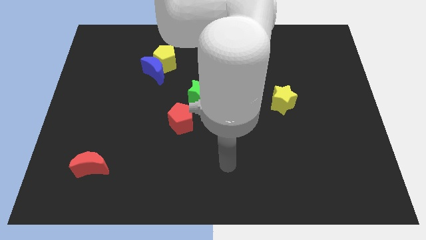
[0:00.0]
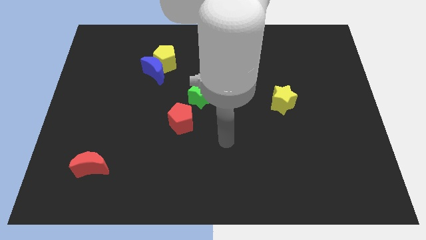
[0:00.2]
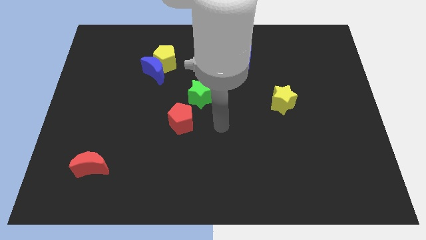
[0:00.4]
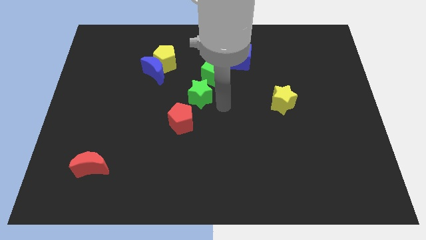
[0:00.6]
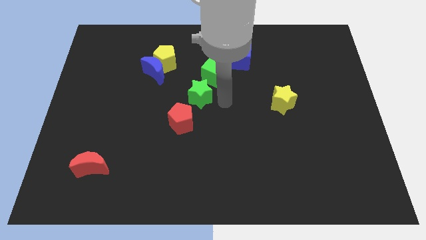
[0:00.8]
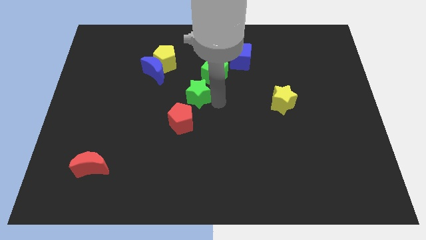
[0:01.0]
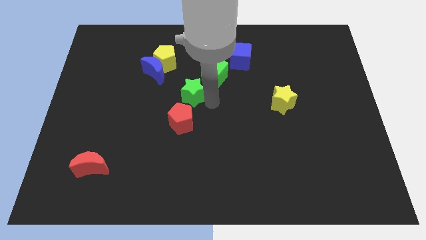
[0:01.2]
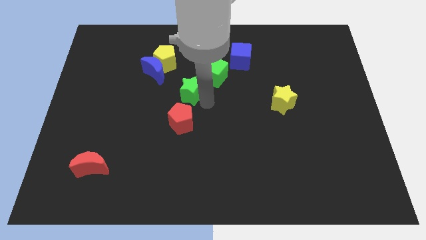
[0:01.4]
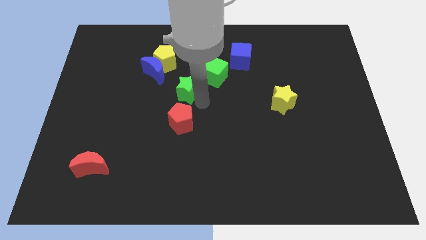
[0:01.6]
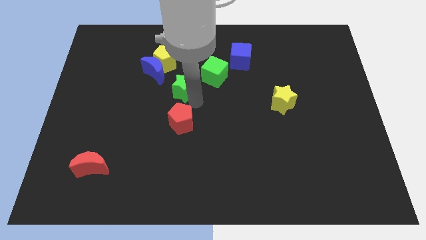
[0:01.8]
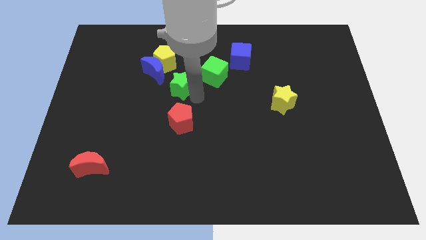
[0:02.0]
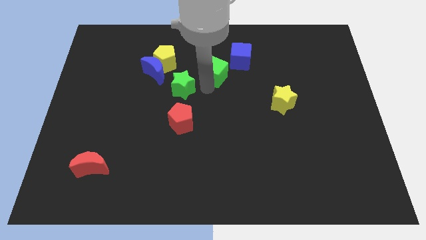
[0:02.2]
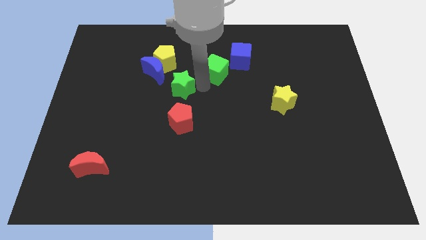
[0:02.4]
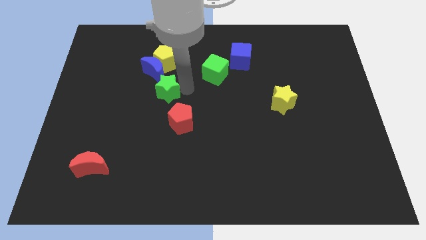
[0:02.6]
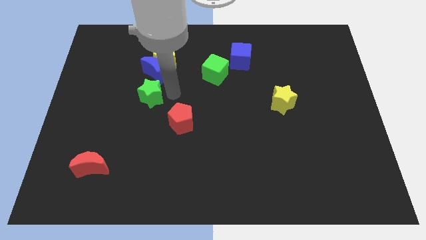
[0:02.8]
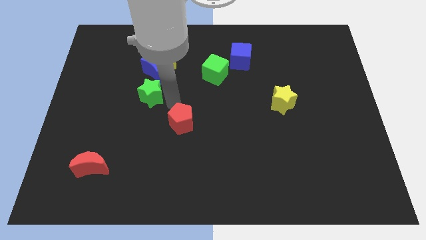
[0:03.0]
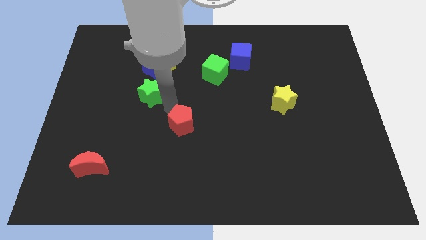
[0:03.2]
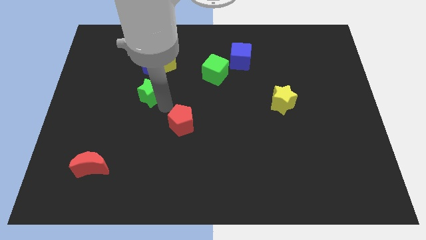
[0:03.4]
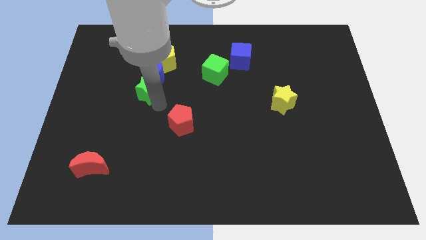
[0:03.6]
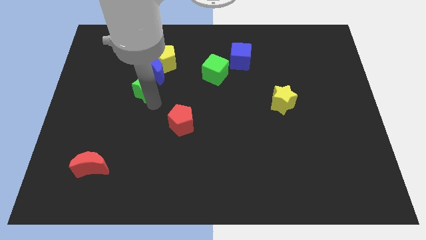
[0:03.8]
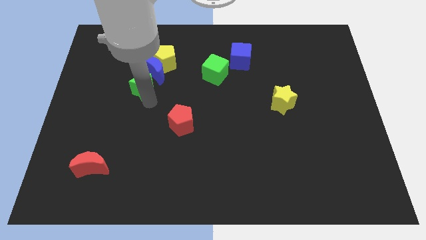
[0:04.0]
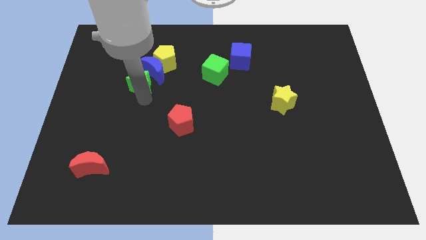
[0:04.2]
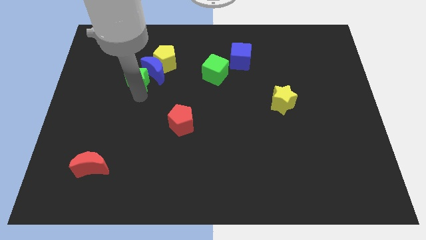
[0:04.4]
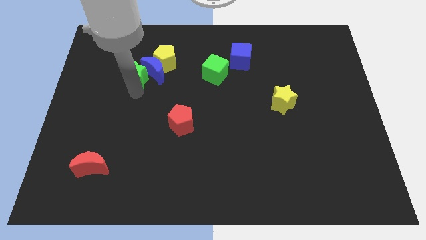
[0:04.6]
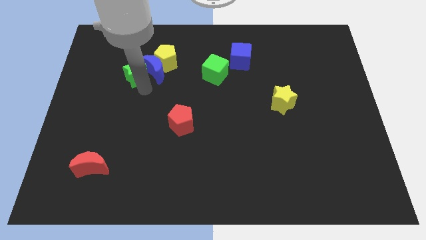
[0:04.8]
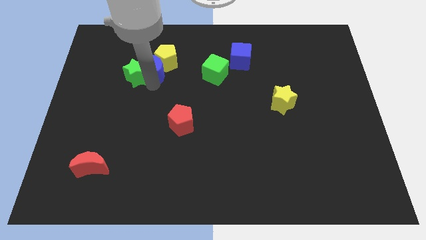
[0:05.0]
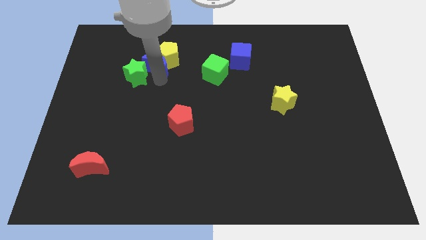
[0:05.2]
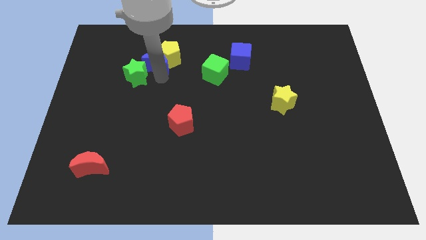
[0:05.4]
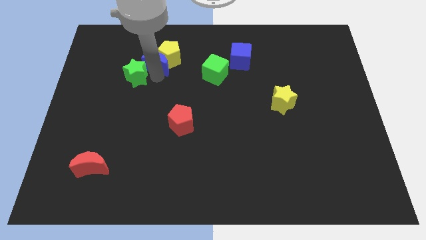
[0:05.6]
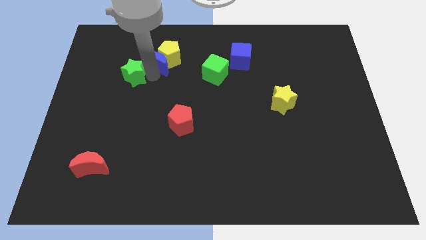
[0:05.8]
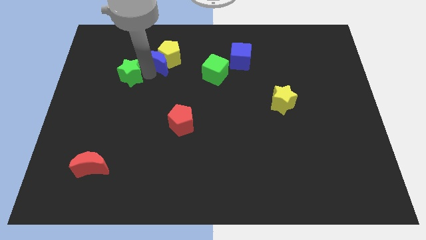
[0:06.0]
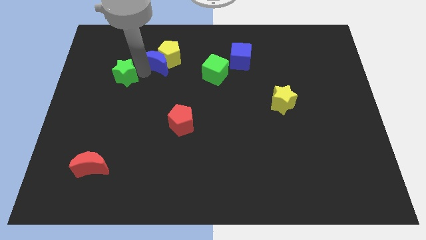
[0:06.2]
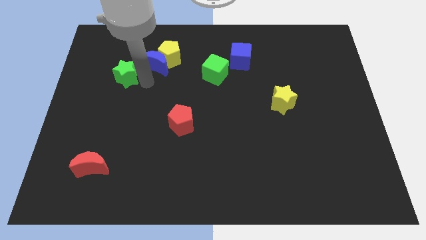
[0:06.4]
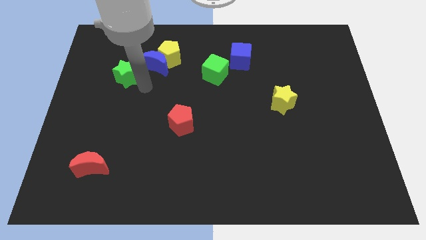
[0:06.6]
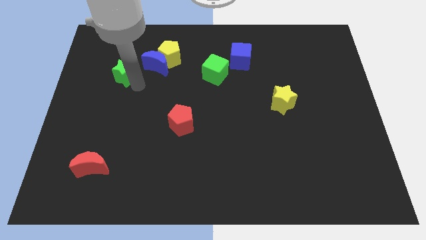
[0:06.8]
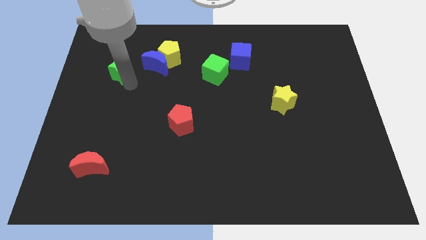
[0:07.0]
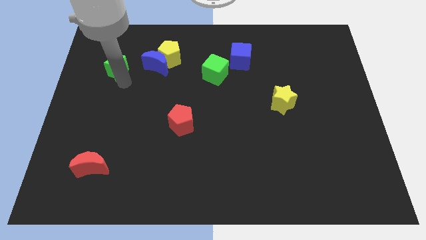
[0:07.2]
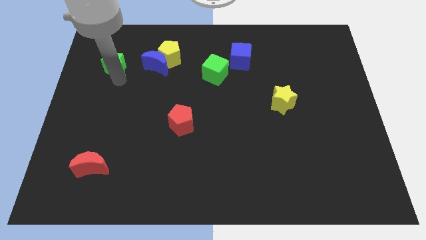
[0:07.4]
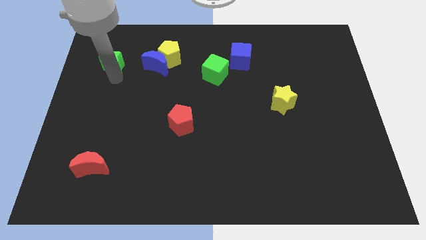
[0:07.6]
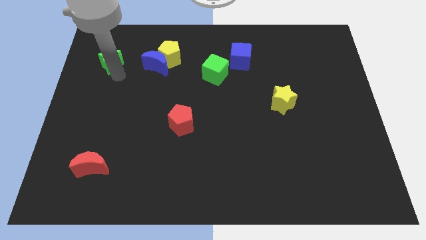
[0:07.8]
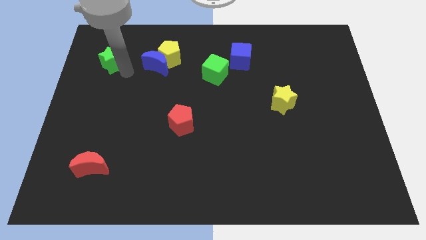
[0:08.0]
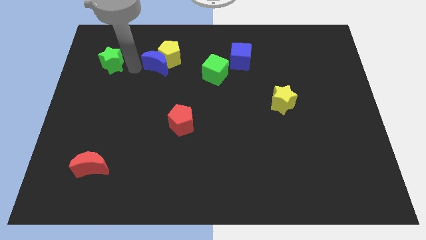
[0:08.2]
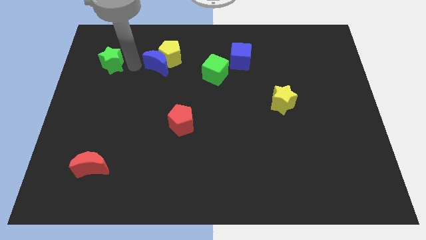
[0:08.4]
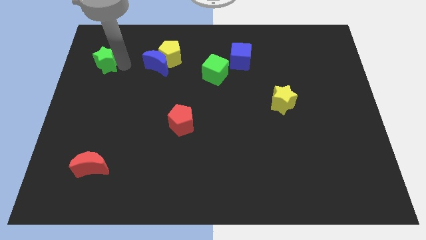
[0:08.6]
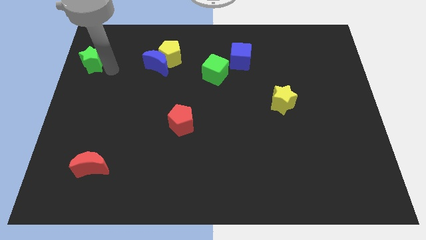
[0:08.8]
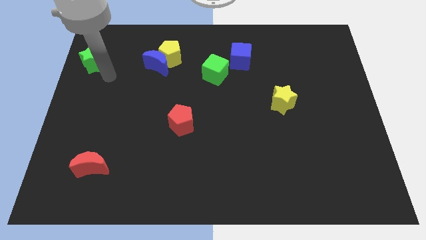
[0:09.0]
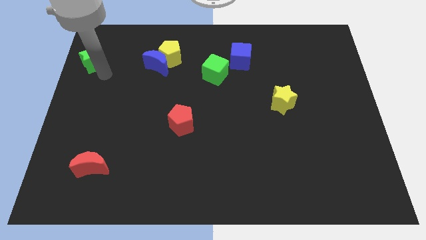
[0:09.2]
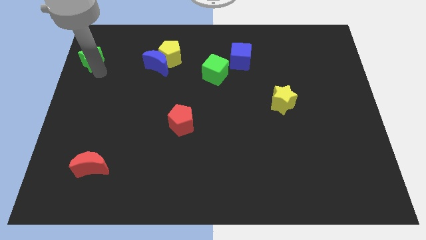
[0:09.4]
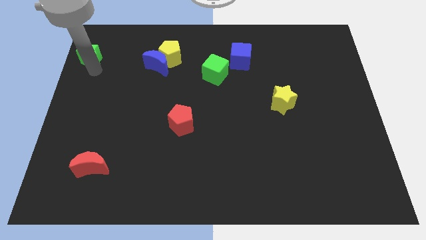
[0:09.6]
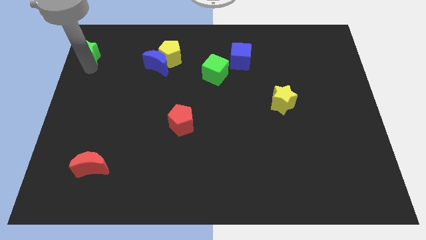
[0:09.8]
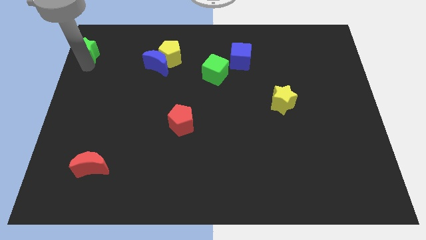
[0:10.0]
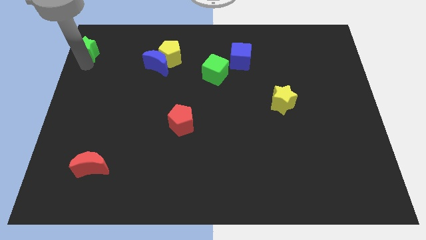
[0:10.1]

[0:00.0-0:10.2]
move the green star to the top left of the board

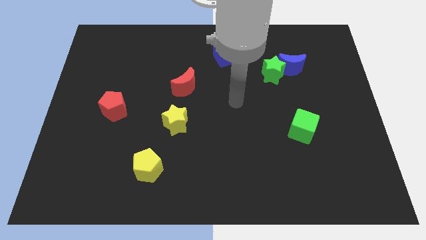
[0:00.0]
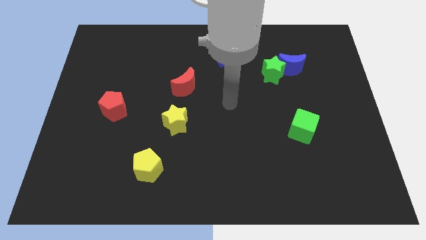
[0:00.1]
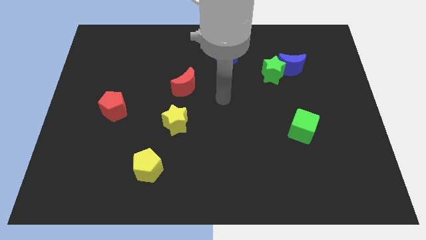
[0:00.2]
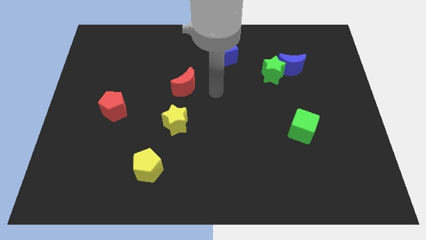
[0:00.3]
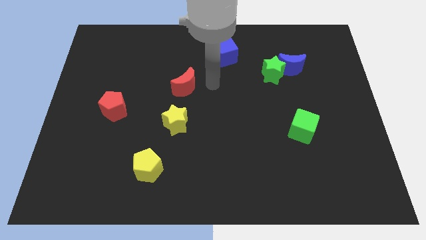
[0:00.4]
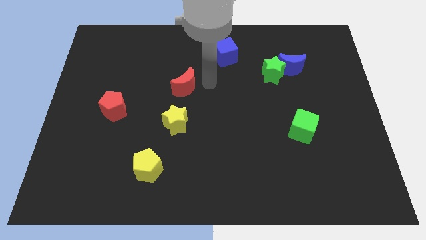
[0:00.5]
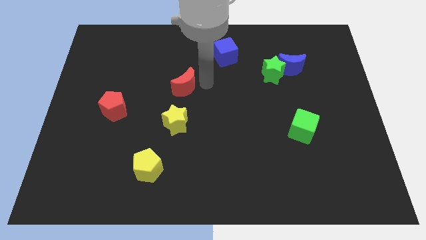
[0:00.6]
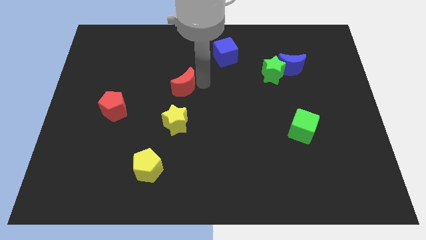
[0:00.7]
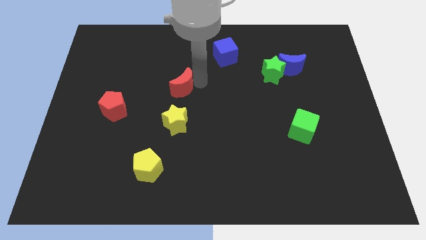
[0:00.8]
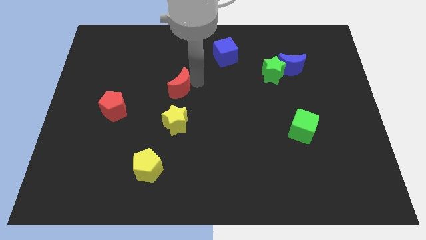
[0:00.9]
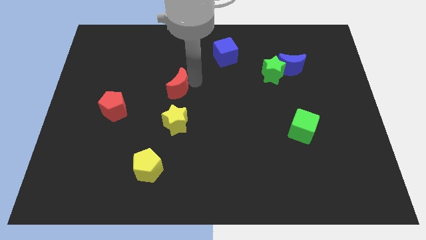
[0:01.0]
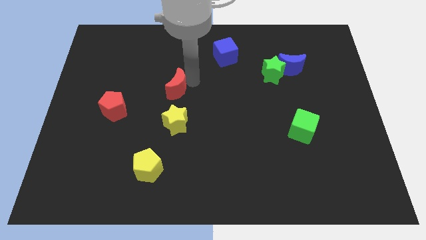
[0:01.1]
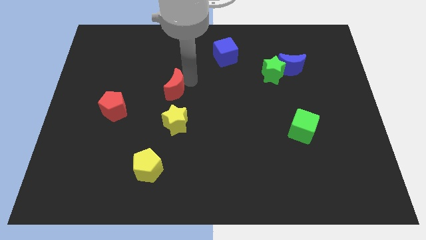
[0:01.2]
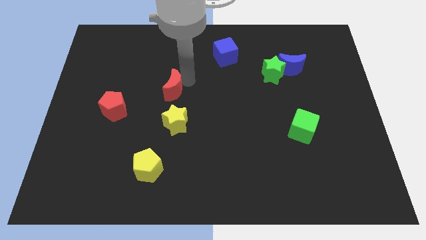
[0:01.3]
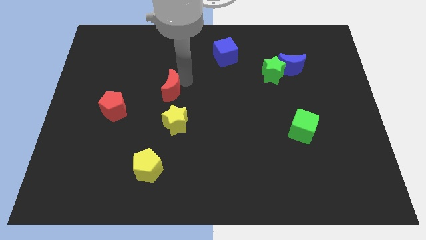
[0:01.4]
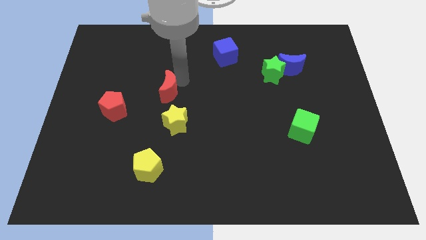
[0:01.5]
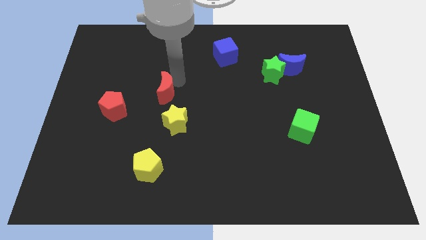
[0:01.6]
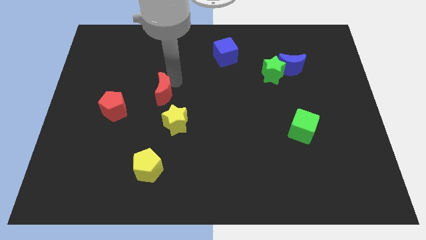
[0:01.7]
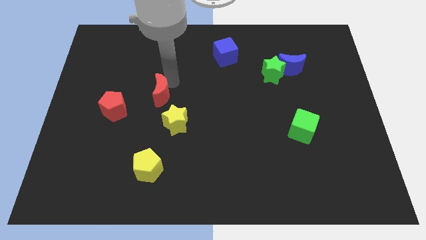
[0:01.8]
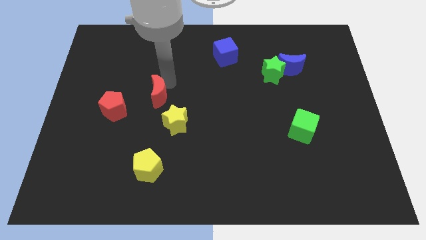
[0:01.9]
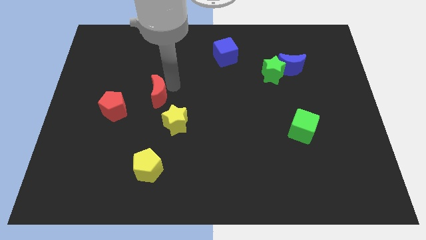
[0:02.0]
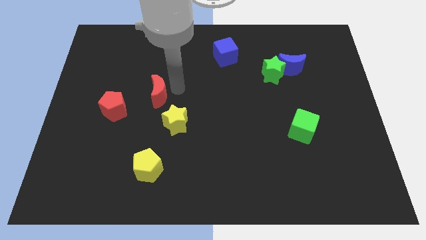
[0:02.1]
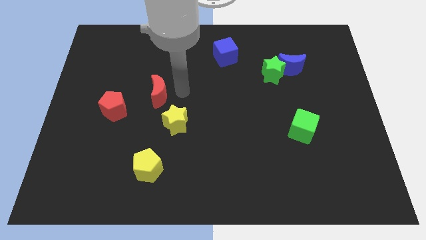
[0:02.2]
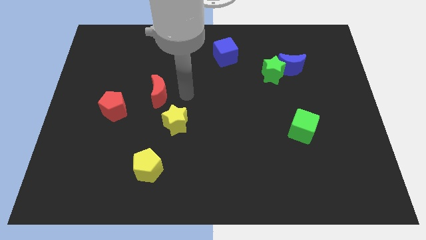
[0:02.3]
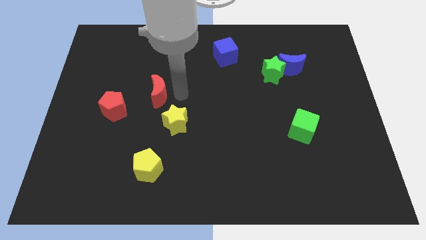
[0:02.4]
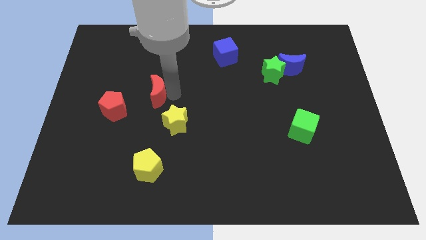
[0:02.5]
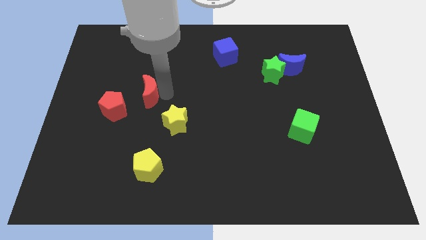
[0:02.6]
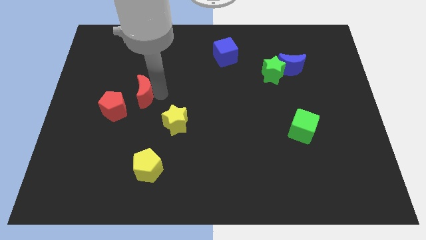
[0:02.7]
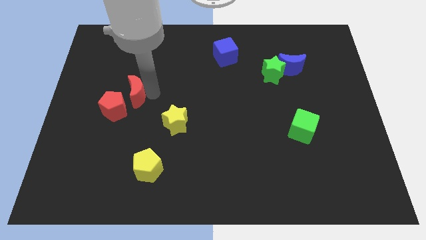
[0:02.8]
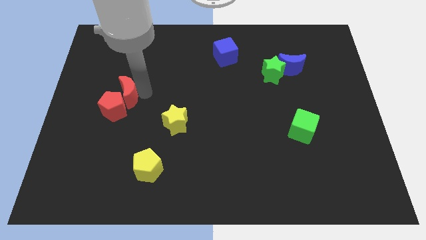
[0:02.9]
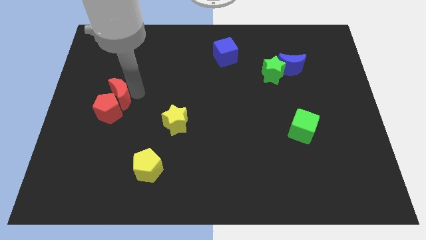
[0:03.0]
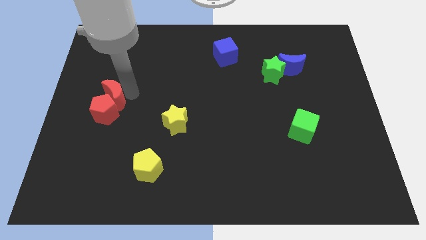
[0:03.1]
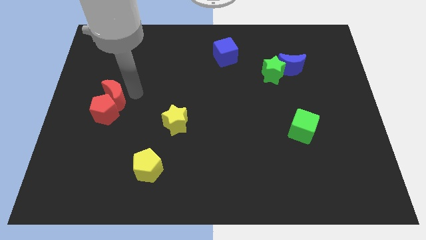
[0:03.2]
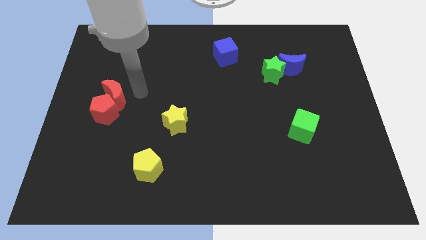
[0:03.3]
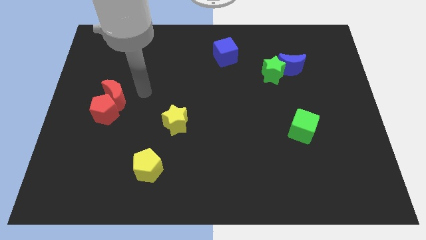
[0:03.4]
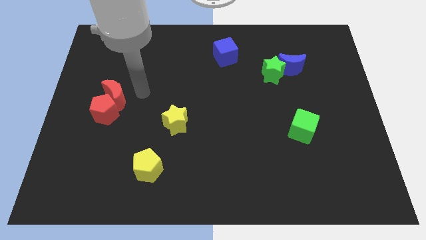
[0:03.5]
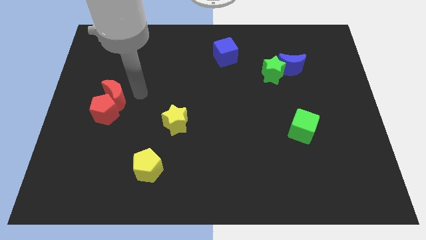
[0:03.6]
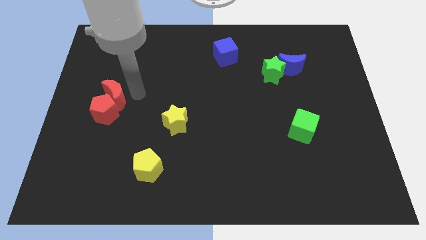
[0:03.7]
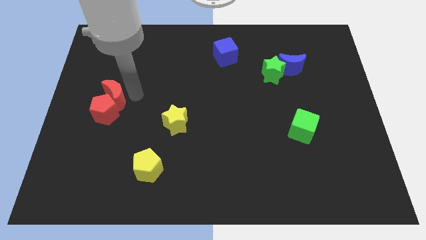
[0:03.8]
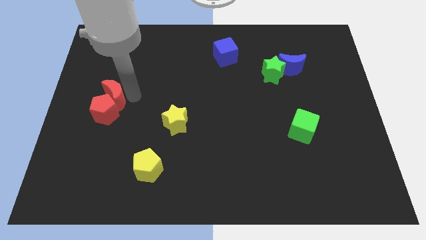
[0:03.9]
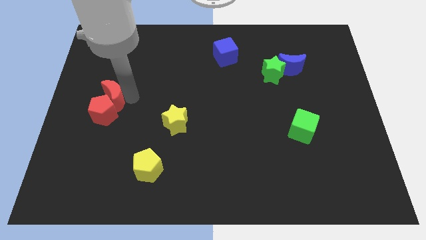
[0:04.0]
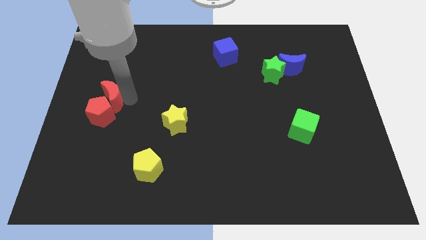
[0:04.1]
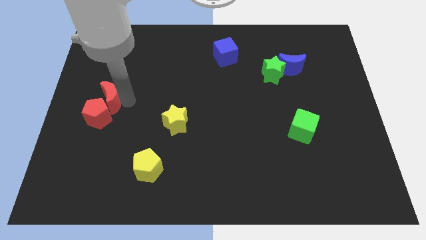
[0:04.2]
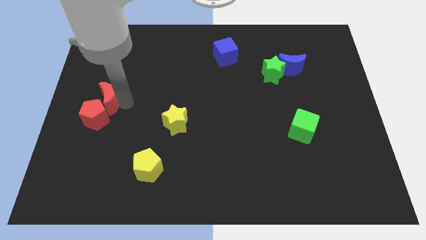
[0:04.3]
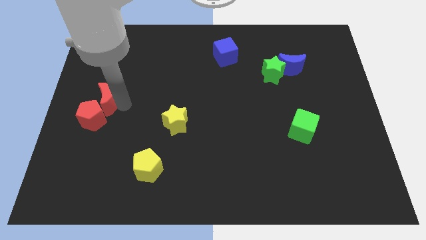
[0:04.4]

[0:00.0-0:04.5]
push the red moon to the center left
